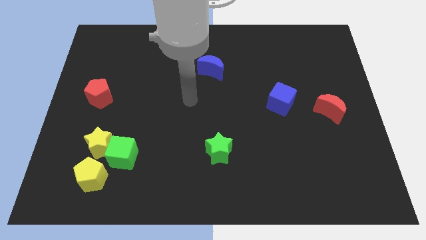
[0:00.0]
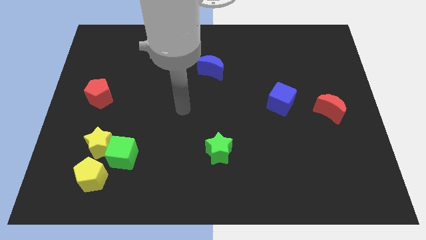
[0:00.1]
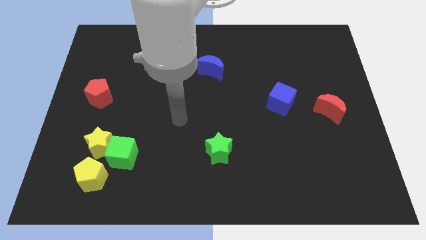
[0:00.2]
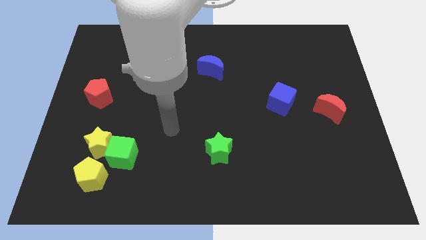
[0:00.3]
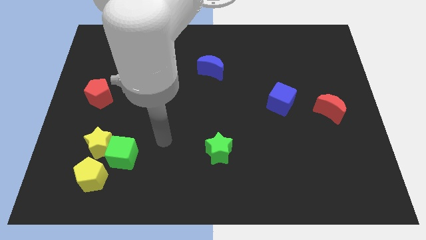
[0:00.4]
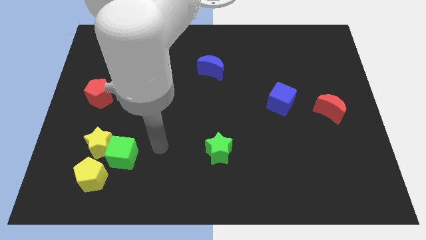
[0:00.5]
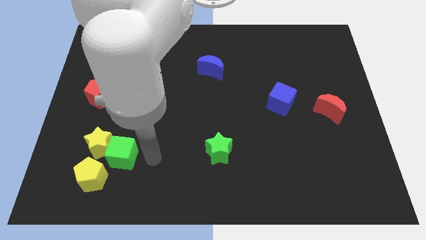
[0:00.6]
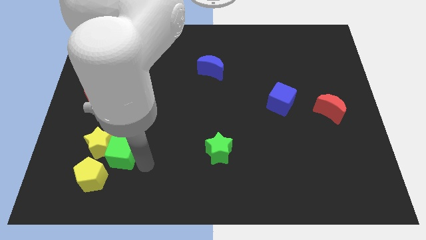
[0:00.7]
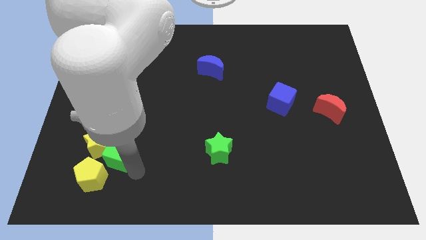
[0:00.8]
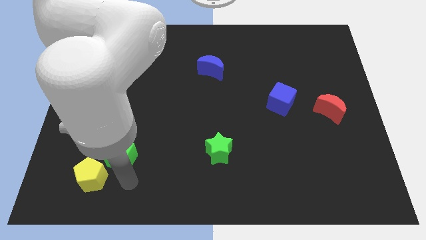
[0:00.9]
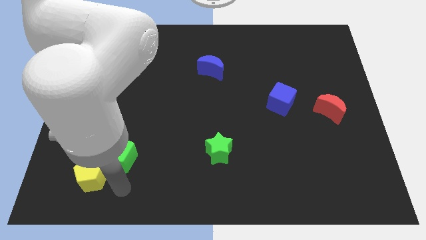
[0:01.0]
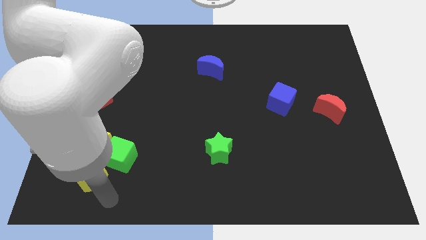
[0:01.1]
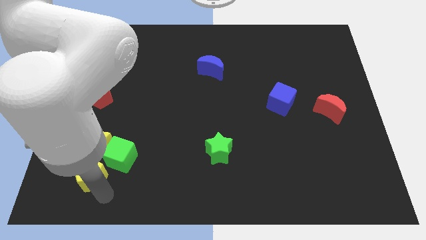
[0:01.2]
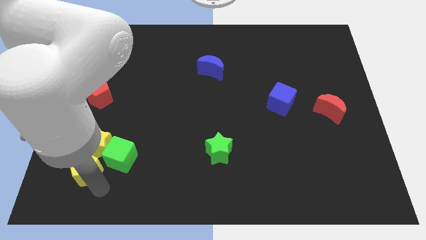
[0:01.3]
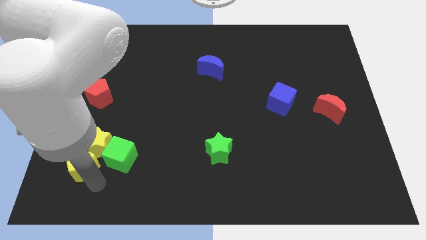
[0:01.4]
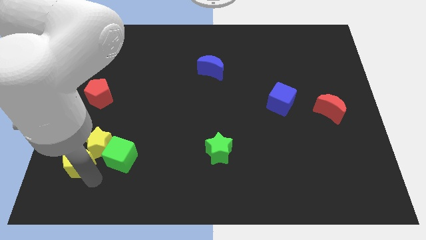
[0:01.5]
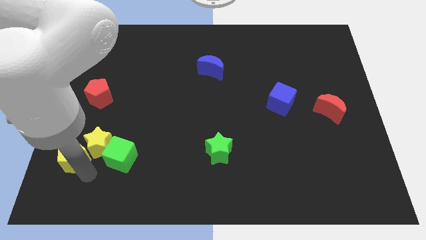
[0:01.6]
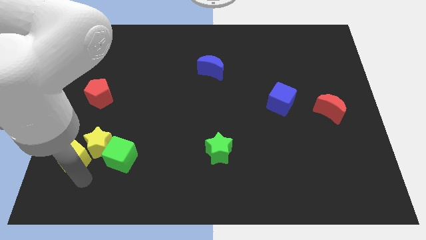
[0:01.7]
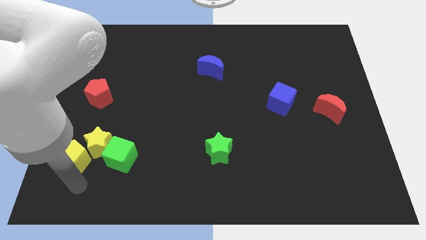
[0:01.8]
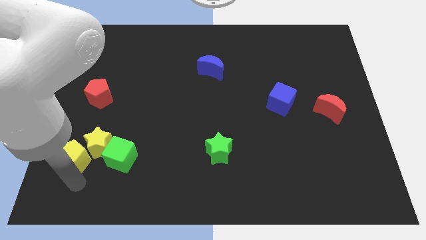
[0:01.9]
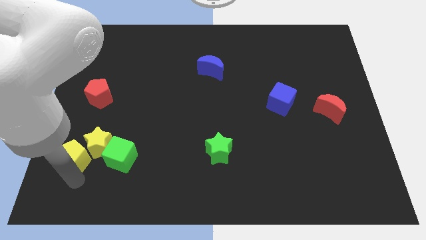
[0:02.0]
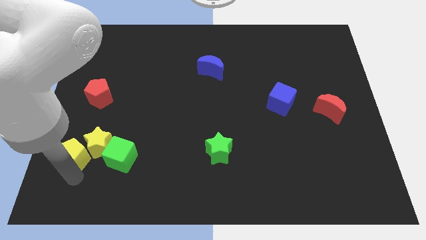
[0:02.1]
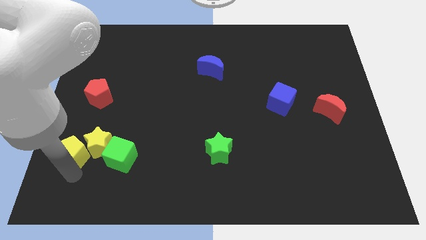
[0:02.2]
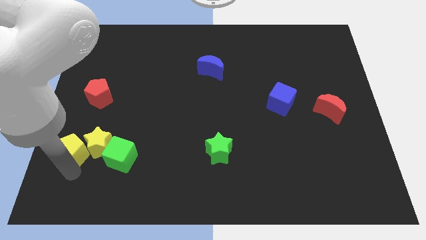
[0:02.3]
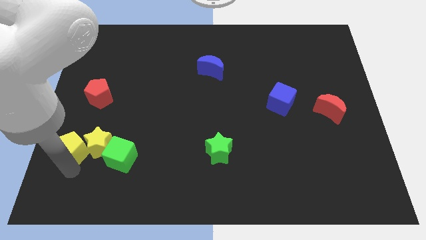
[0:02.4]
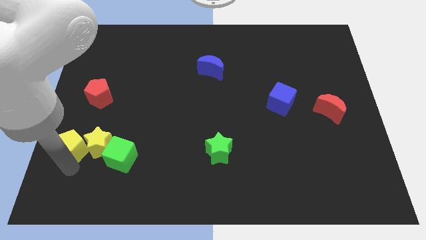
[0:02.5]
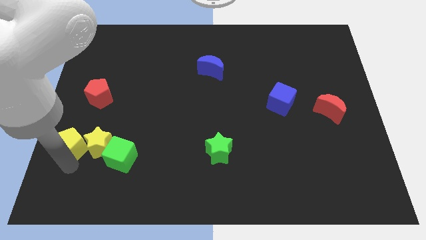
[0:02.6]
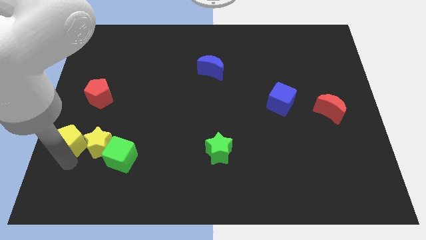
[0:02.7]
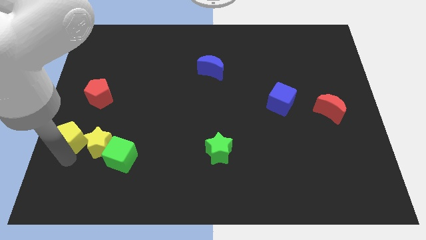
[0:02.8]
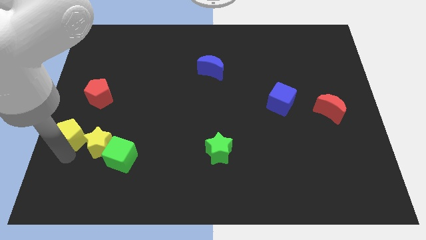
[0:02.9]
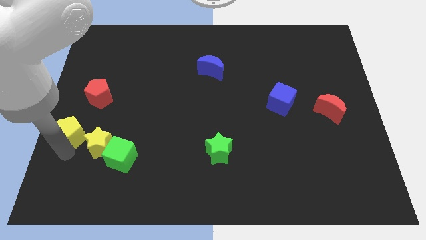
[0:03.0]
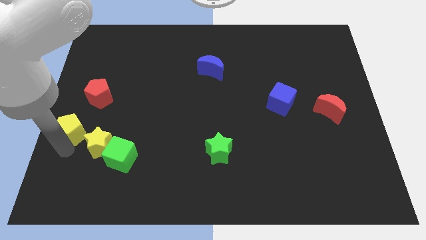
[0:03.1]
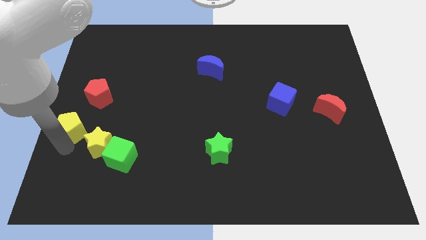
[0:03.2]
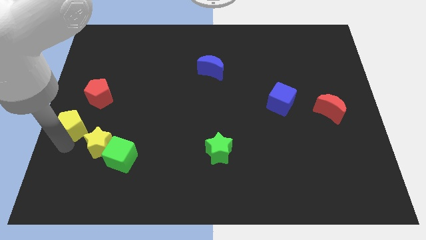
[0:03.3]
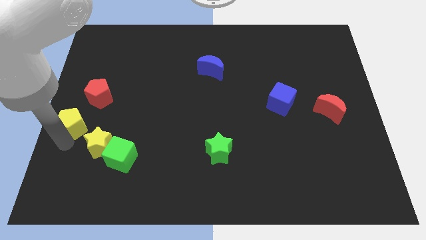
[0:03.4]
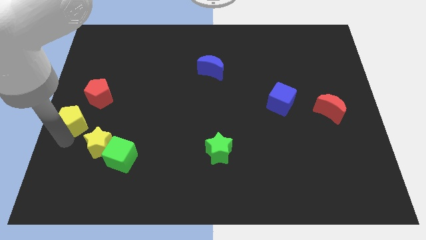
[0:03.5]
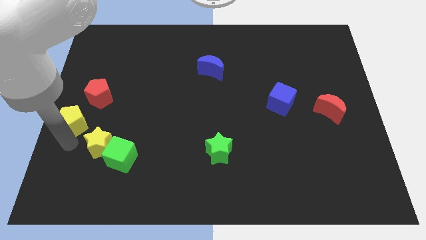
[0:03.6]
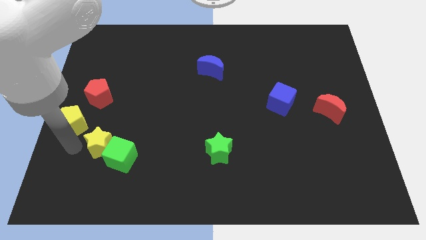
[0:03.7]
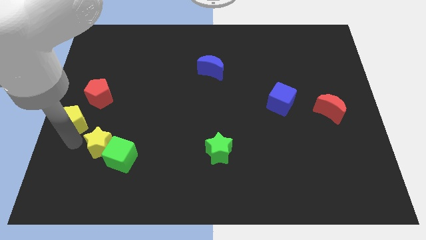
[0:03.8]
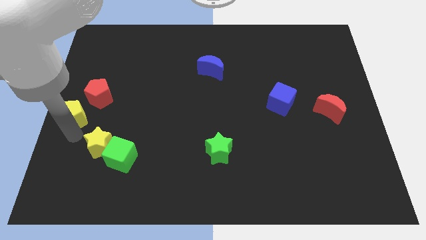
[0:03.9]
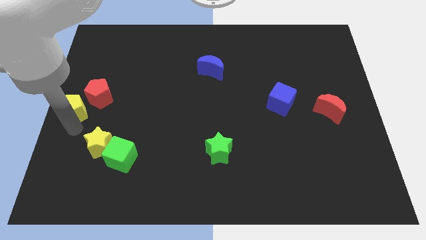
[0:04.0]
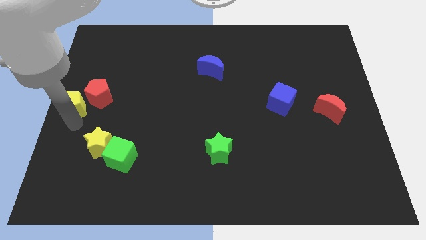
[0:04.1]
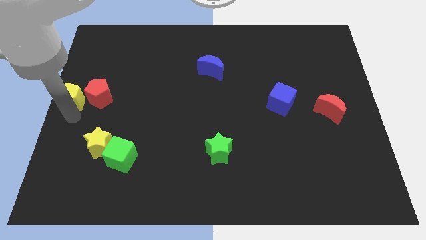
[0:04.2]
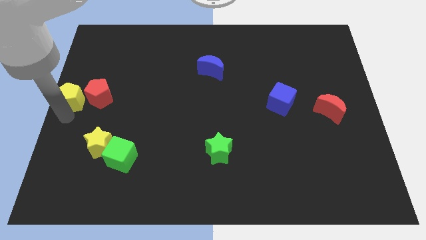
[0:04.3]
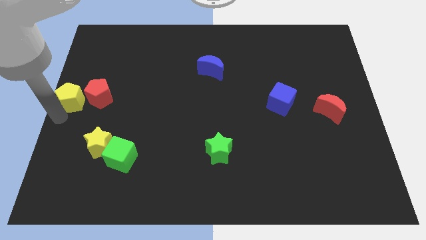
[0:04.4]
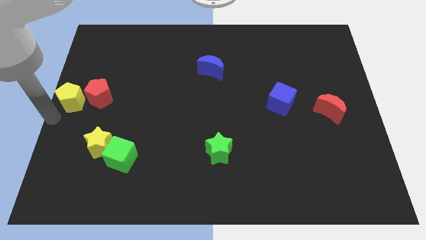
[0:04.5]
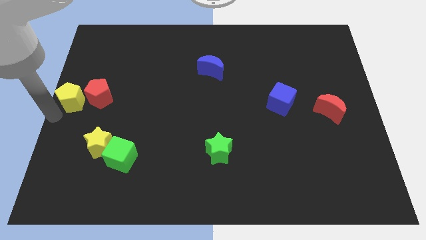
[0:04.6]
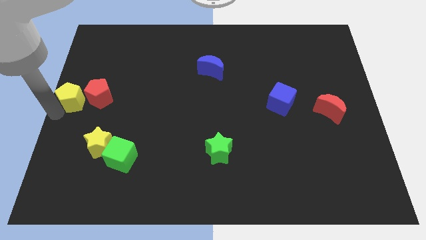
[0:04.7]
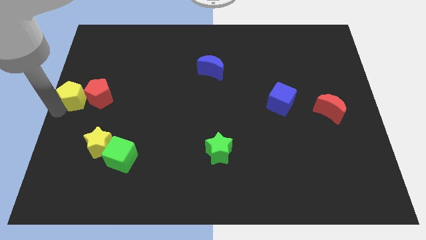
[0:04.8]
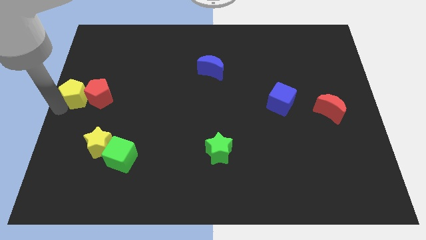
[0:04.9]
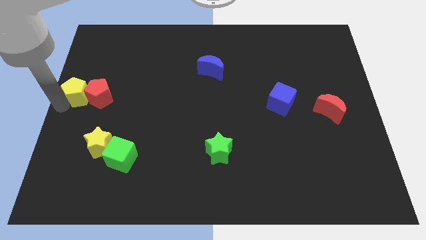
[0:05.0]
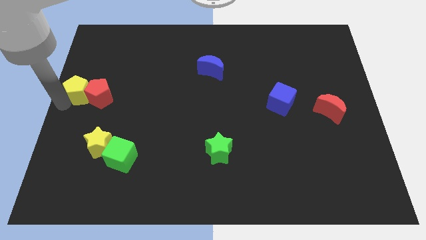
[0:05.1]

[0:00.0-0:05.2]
push the yellow pentagon upwards

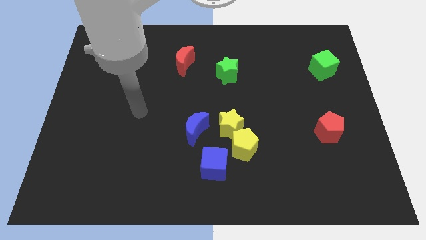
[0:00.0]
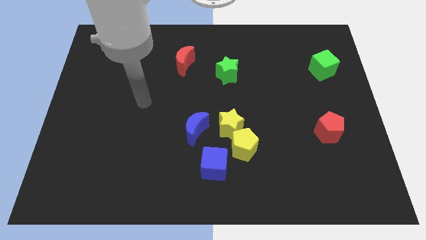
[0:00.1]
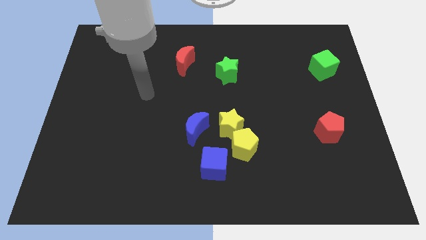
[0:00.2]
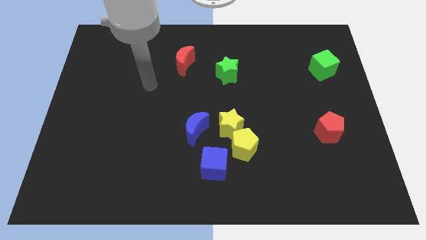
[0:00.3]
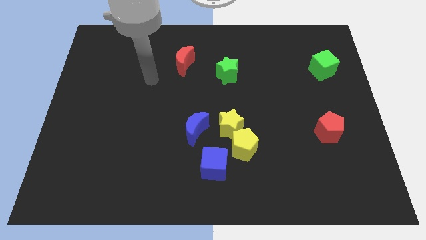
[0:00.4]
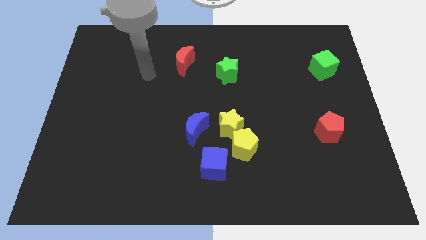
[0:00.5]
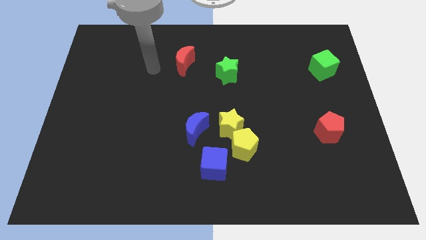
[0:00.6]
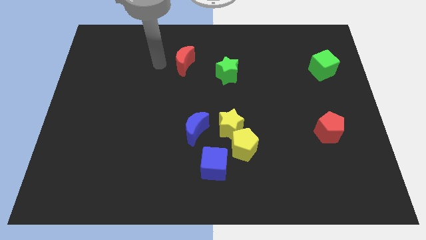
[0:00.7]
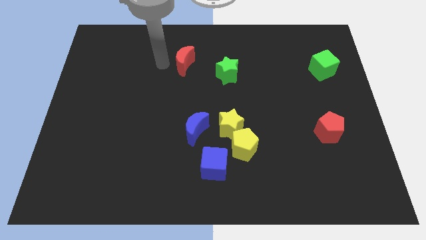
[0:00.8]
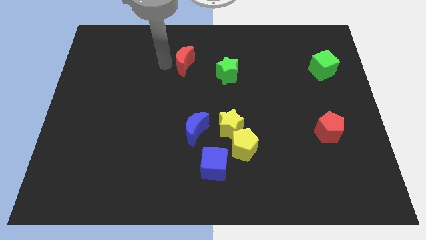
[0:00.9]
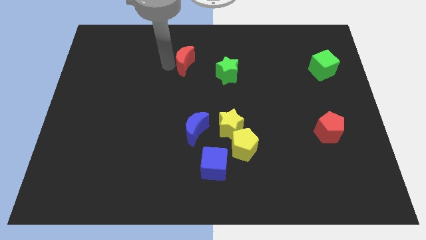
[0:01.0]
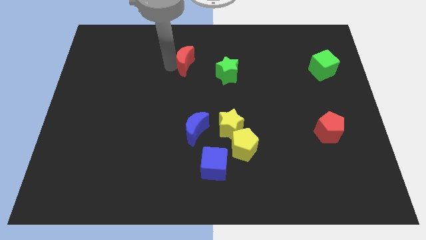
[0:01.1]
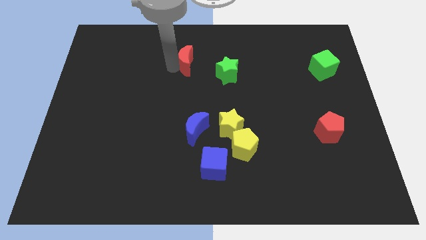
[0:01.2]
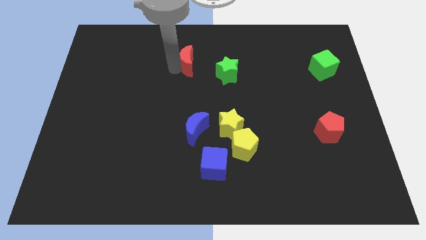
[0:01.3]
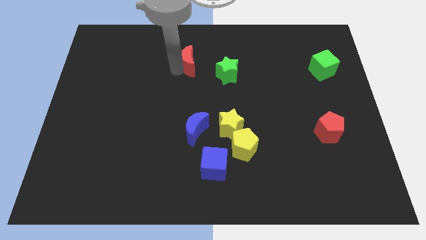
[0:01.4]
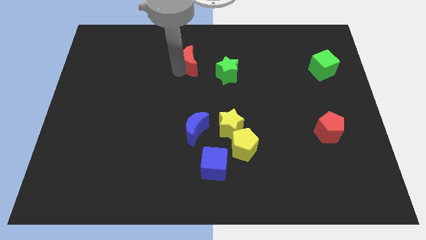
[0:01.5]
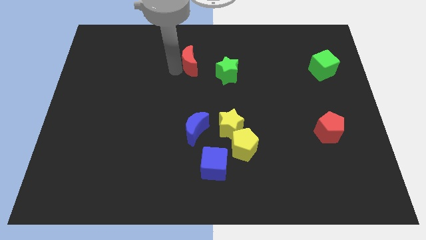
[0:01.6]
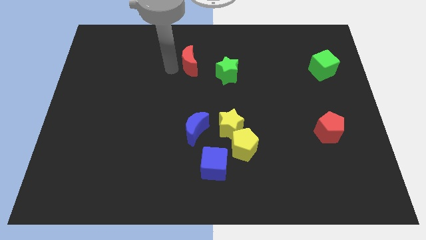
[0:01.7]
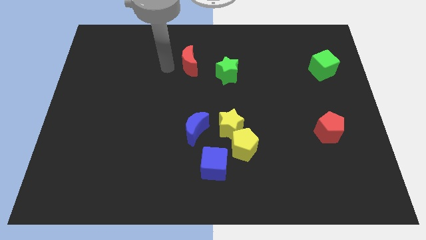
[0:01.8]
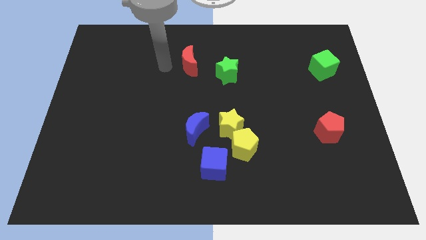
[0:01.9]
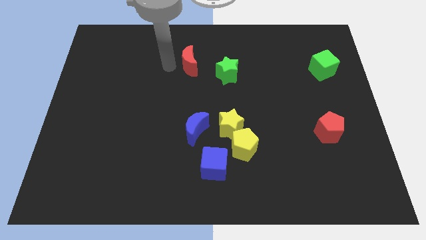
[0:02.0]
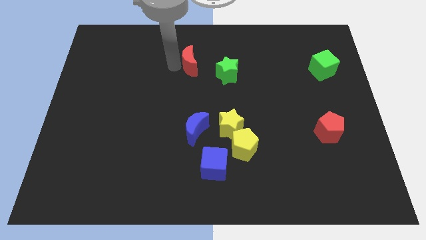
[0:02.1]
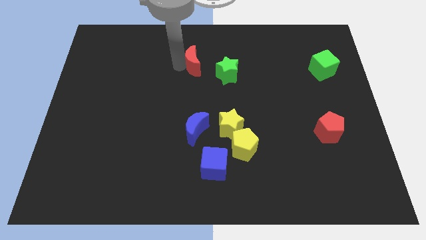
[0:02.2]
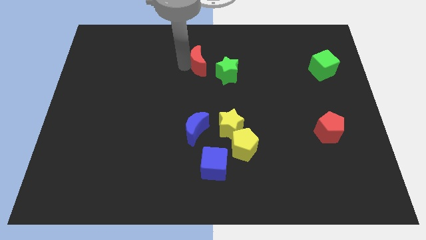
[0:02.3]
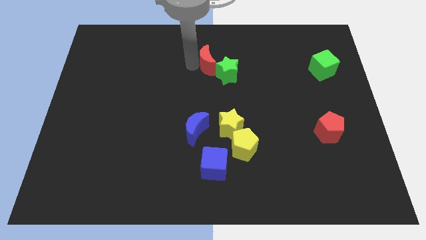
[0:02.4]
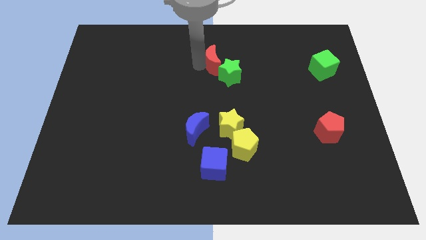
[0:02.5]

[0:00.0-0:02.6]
slide the red moon a little to the right
